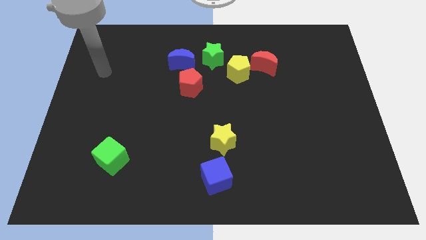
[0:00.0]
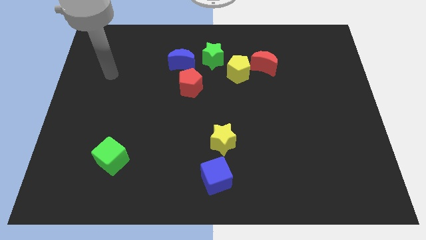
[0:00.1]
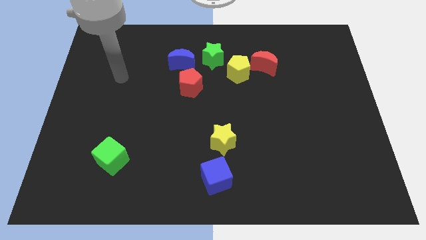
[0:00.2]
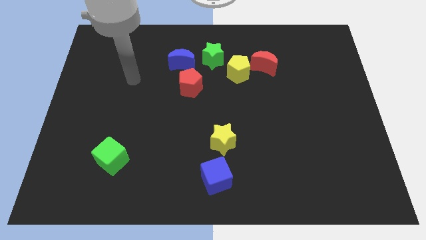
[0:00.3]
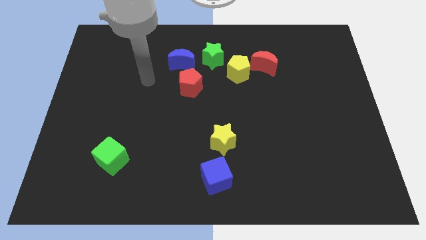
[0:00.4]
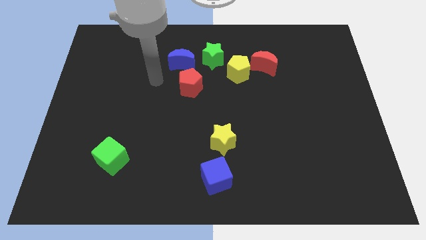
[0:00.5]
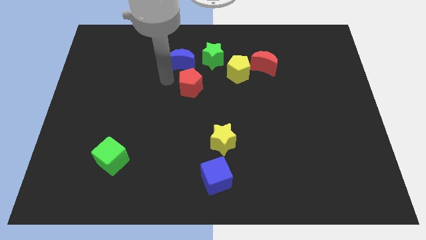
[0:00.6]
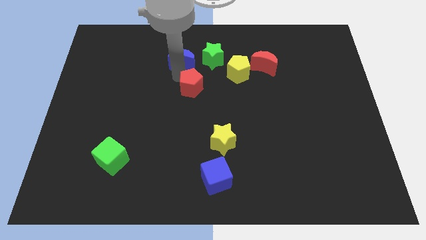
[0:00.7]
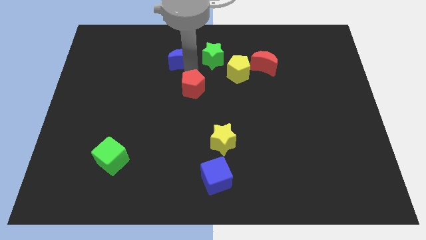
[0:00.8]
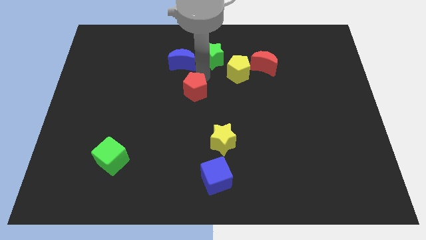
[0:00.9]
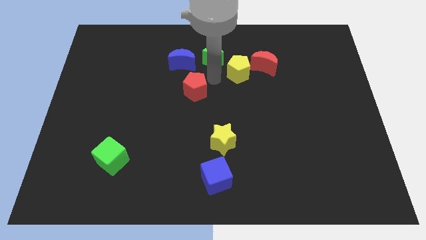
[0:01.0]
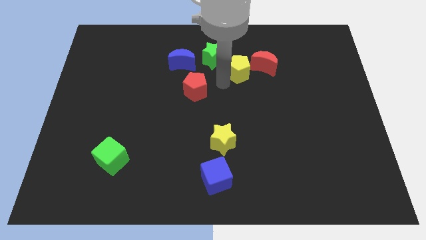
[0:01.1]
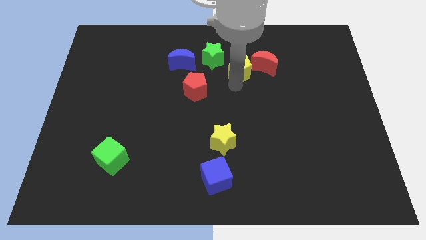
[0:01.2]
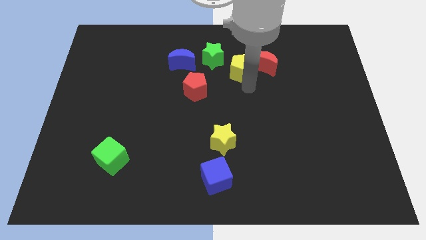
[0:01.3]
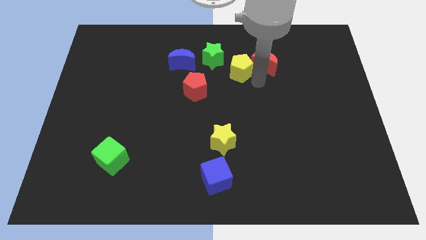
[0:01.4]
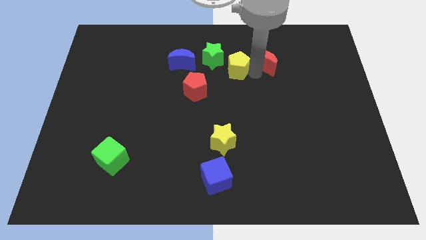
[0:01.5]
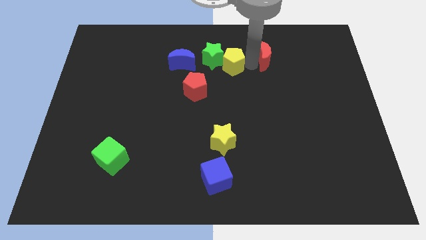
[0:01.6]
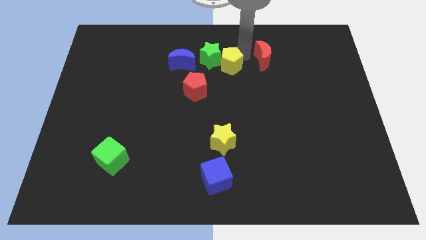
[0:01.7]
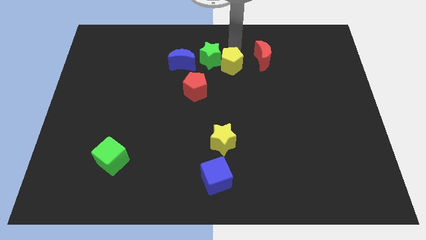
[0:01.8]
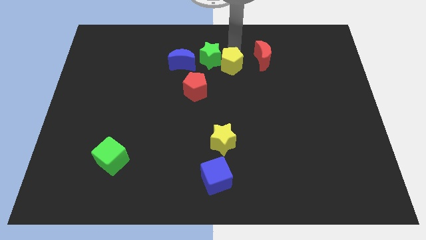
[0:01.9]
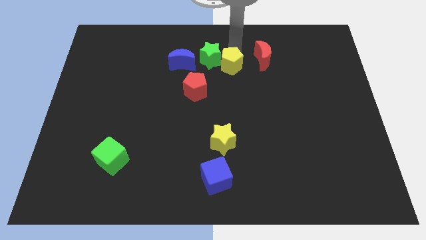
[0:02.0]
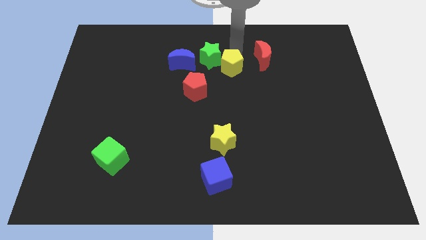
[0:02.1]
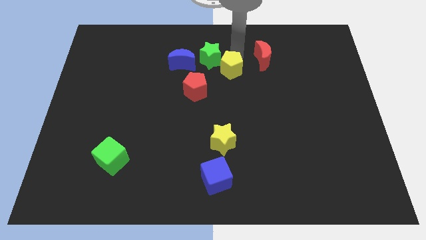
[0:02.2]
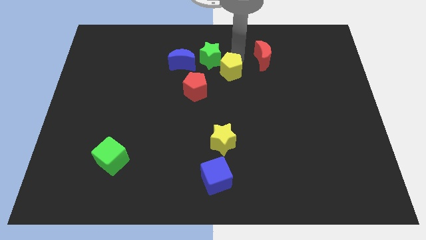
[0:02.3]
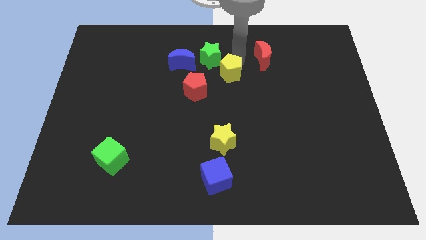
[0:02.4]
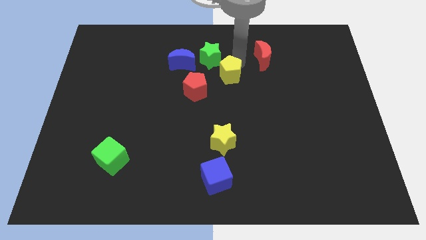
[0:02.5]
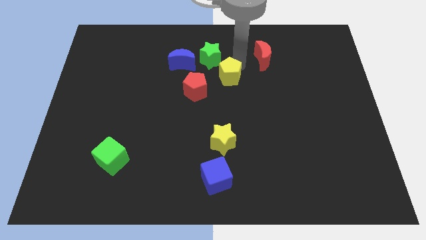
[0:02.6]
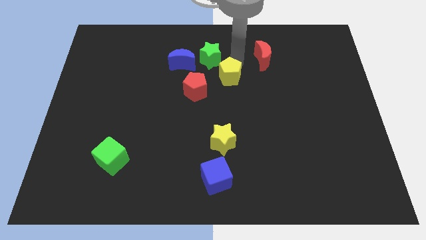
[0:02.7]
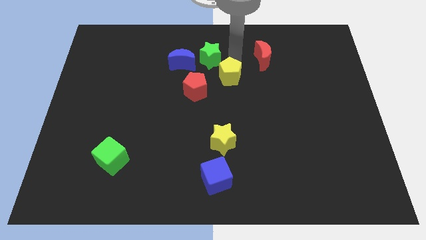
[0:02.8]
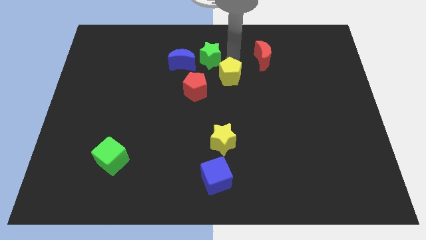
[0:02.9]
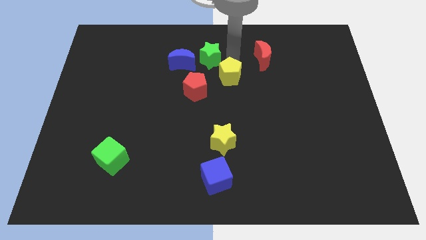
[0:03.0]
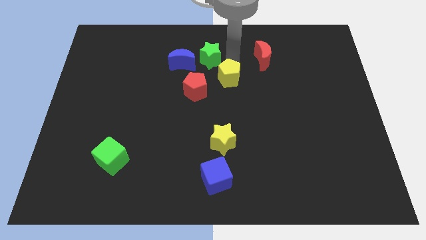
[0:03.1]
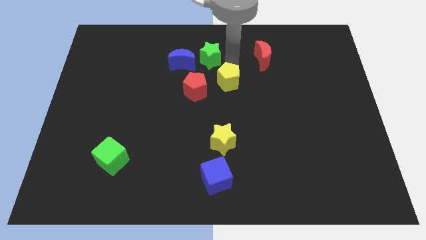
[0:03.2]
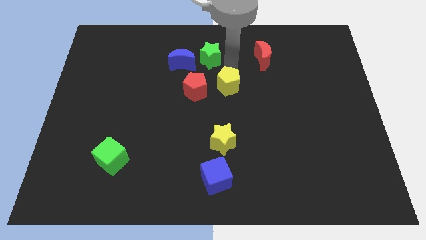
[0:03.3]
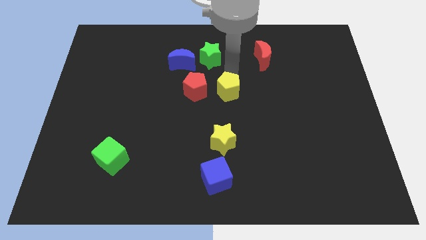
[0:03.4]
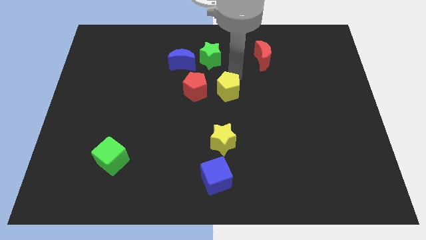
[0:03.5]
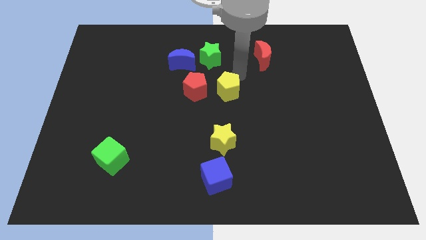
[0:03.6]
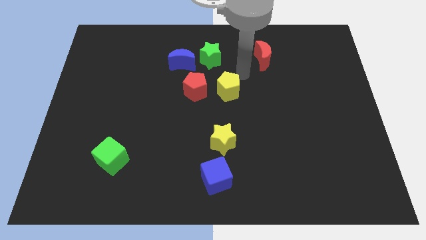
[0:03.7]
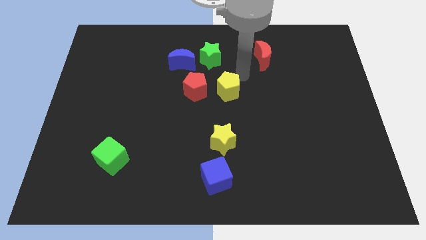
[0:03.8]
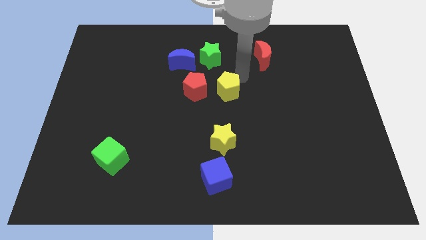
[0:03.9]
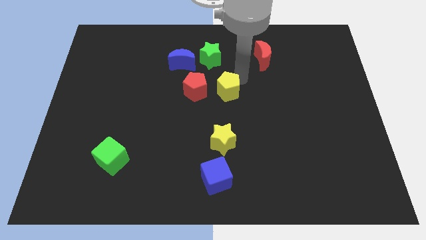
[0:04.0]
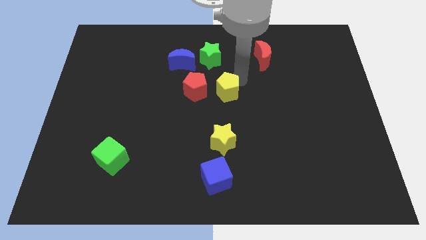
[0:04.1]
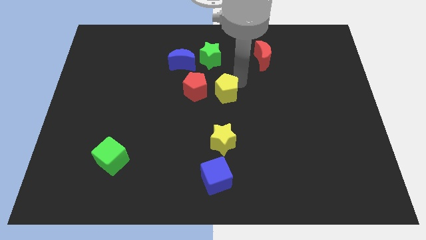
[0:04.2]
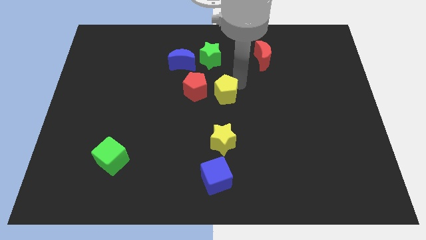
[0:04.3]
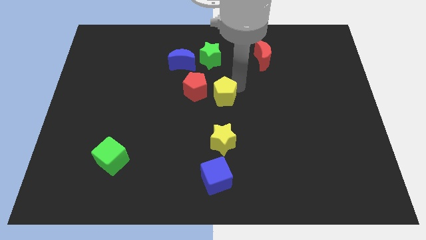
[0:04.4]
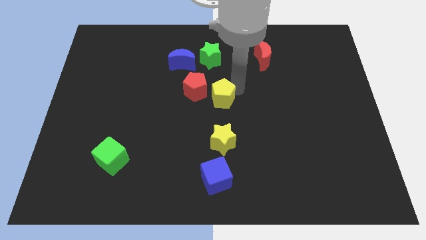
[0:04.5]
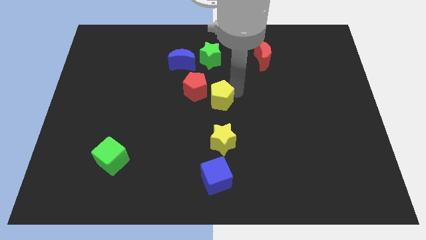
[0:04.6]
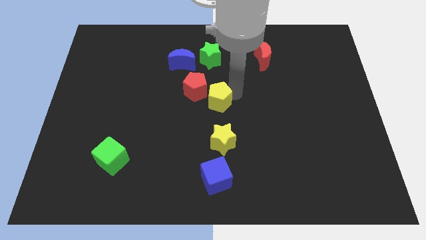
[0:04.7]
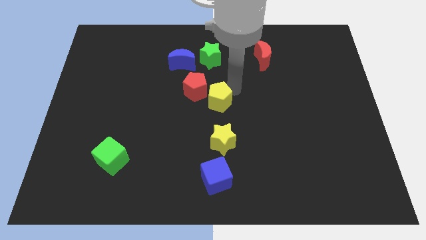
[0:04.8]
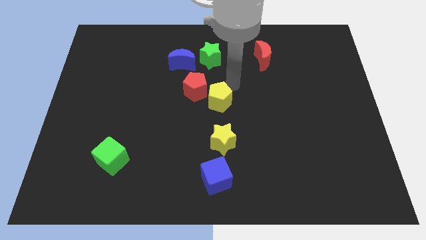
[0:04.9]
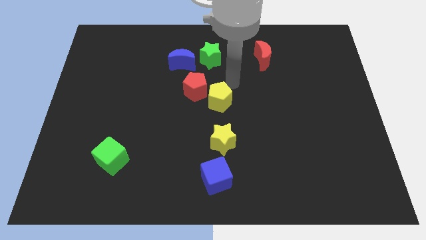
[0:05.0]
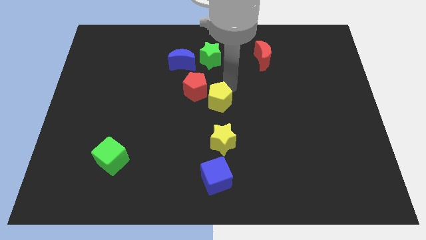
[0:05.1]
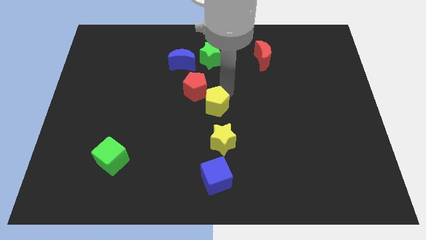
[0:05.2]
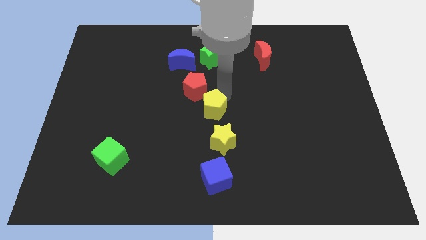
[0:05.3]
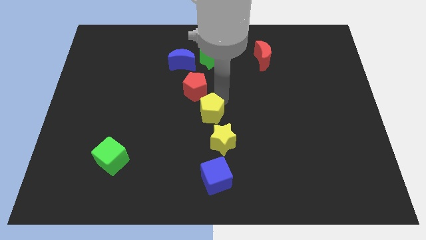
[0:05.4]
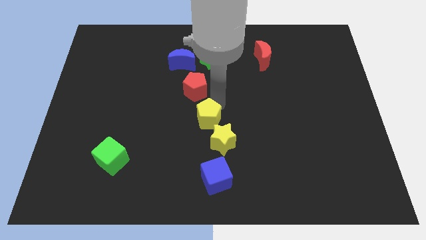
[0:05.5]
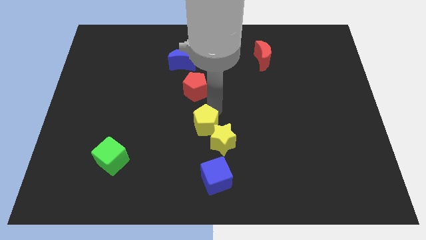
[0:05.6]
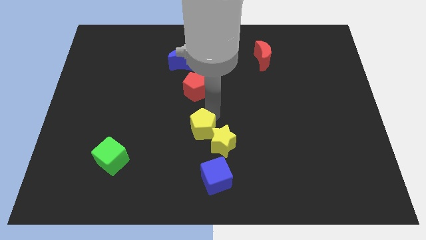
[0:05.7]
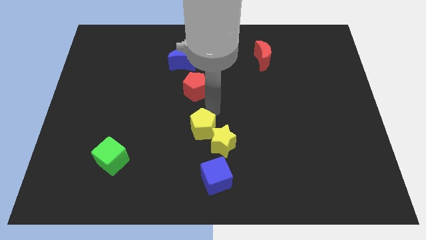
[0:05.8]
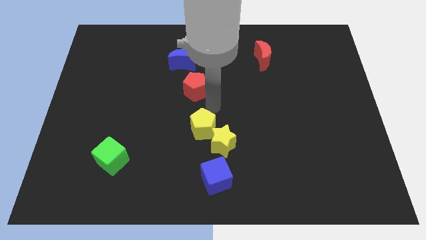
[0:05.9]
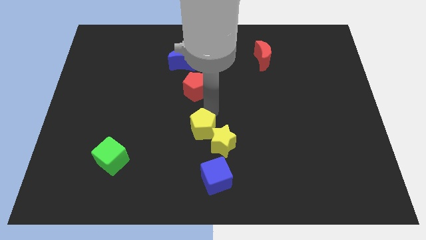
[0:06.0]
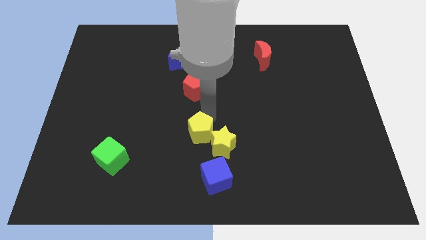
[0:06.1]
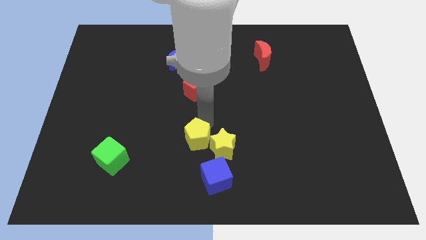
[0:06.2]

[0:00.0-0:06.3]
put the yellow pentagon to the top left of the blue cube

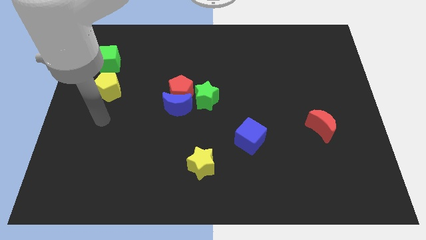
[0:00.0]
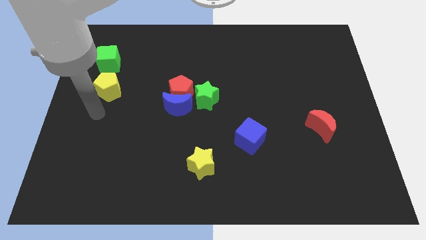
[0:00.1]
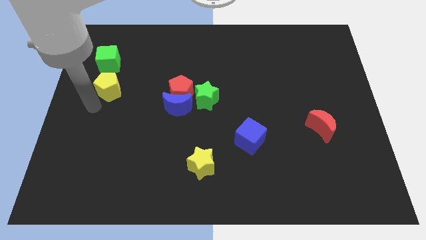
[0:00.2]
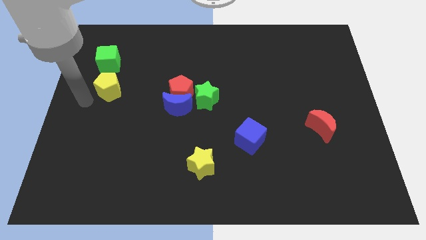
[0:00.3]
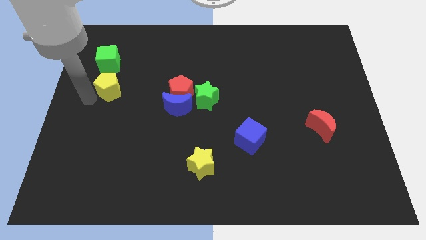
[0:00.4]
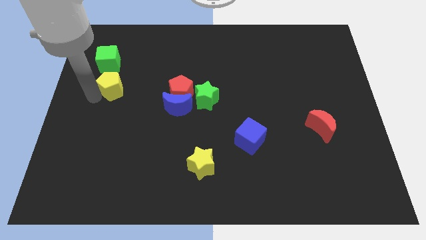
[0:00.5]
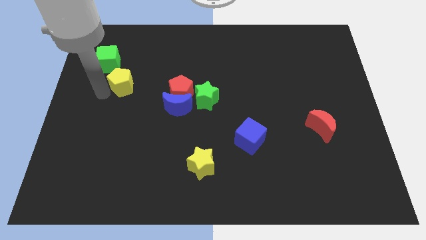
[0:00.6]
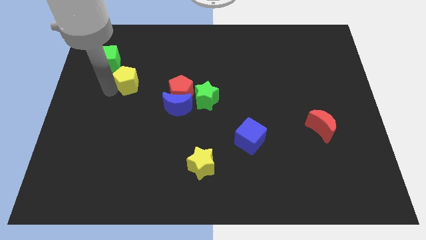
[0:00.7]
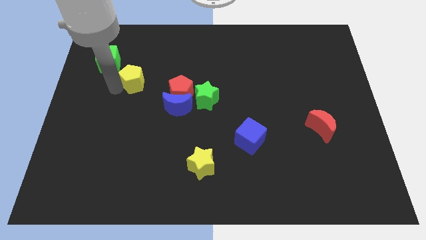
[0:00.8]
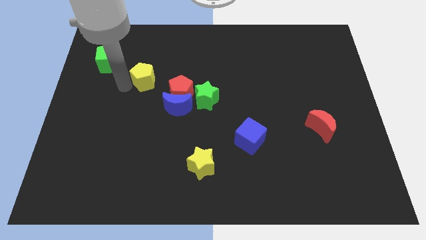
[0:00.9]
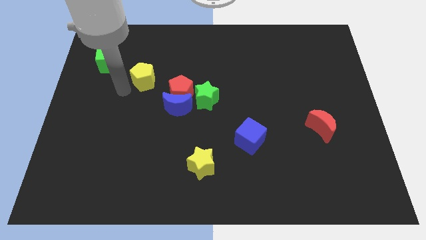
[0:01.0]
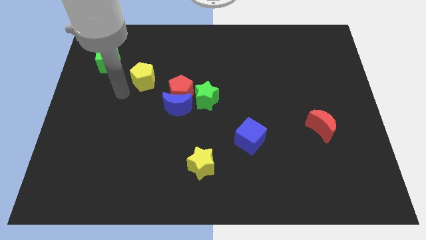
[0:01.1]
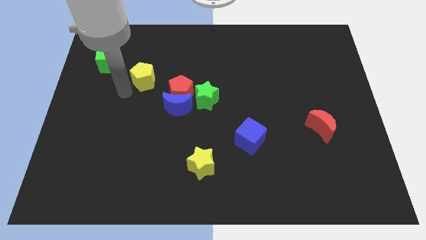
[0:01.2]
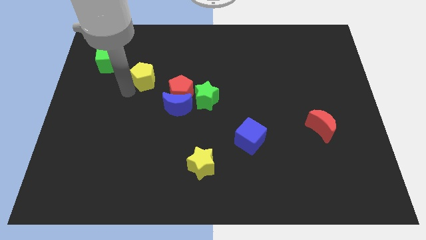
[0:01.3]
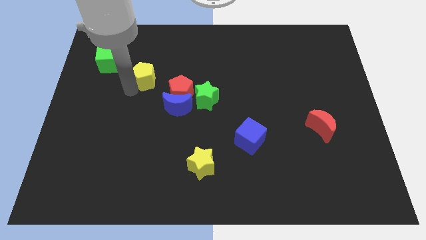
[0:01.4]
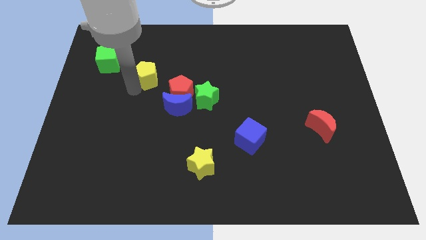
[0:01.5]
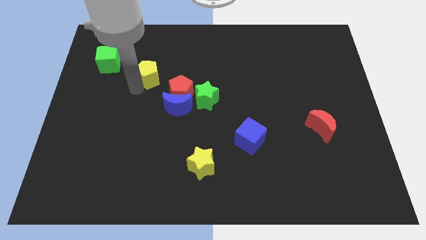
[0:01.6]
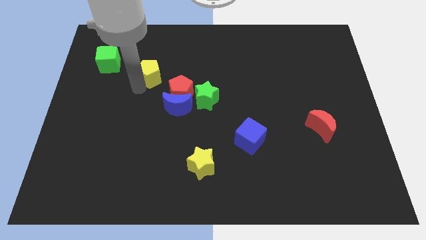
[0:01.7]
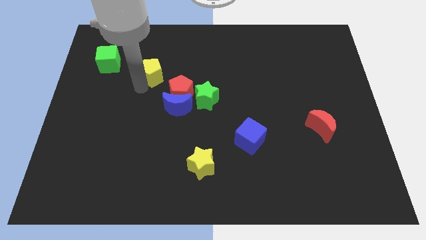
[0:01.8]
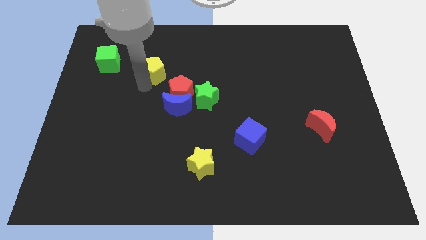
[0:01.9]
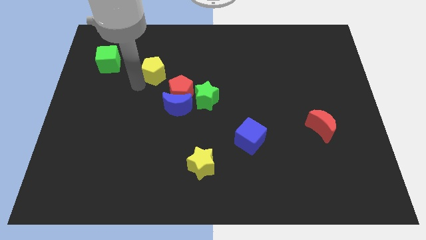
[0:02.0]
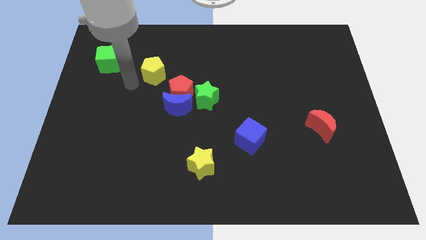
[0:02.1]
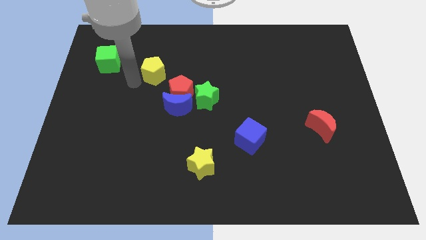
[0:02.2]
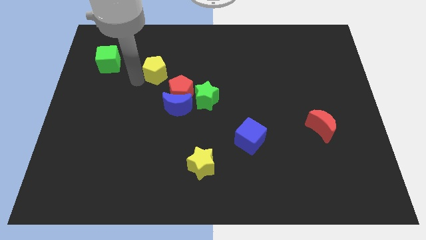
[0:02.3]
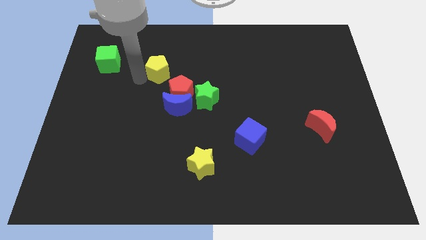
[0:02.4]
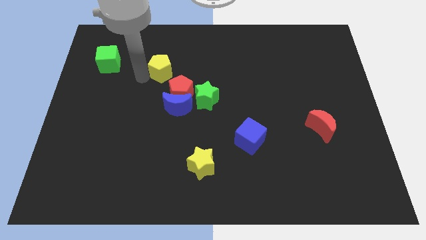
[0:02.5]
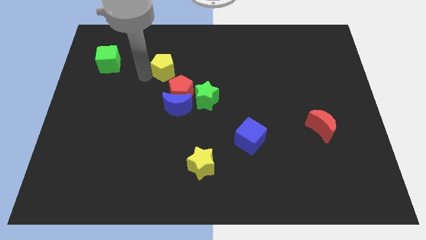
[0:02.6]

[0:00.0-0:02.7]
push the yellow pentagon above the red pentagon
